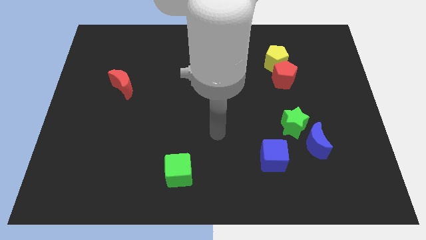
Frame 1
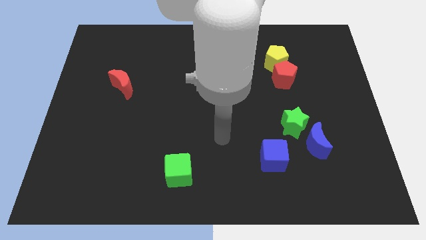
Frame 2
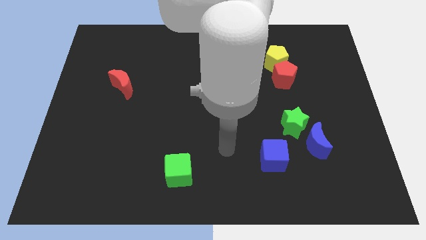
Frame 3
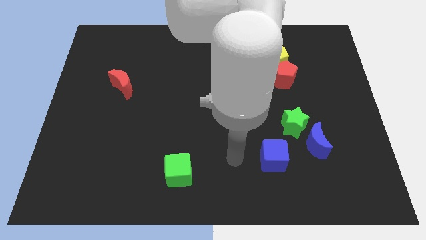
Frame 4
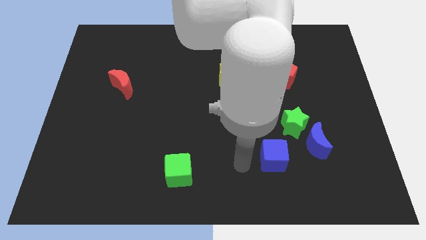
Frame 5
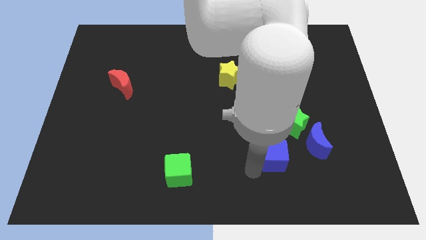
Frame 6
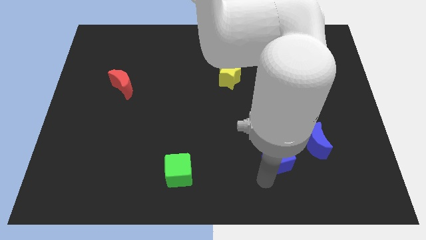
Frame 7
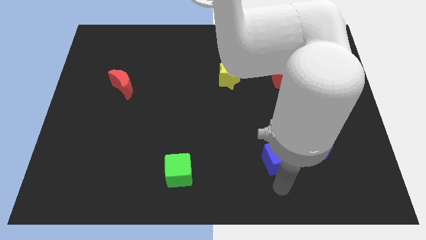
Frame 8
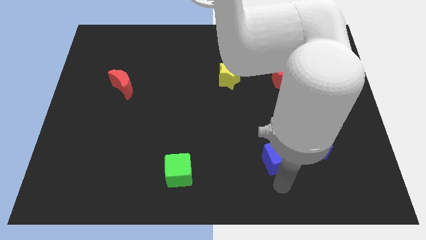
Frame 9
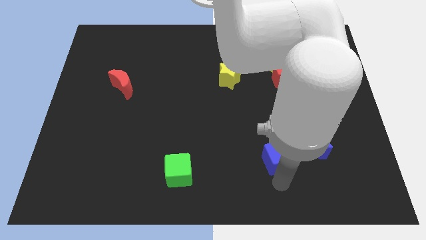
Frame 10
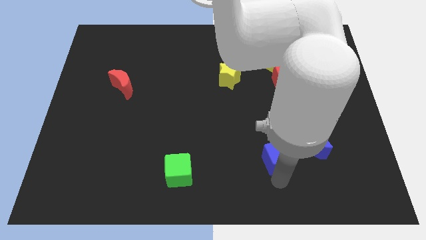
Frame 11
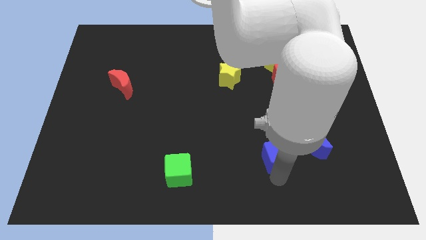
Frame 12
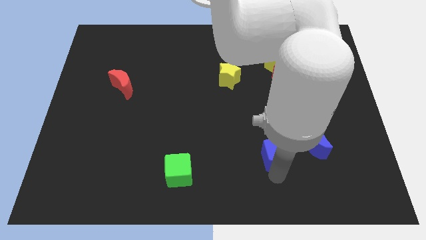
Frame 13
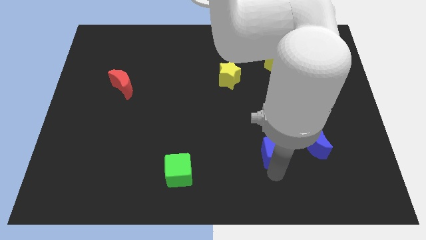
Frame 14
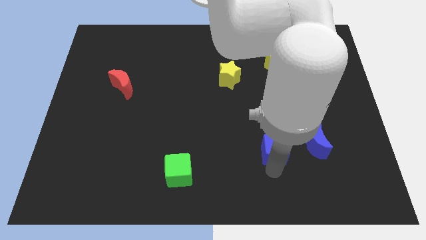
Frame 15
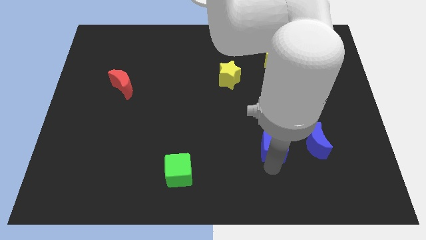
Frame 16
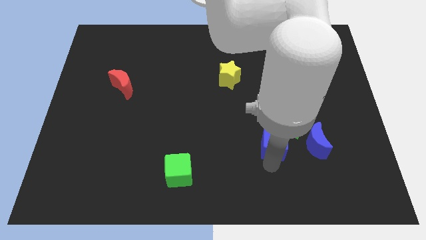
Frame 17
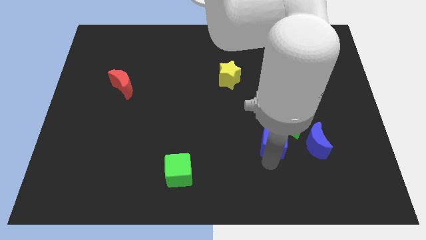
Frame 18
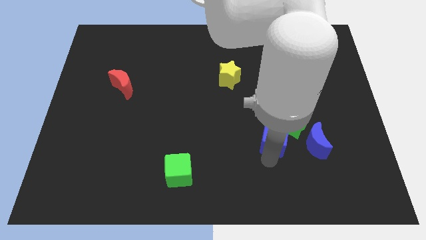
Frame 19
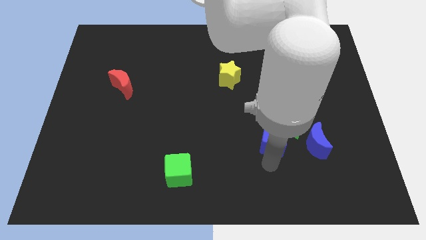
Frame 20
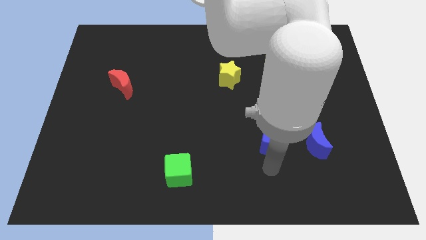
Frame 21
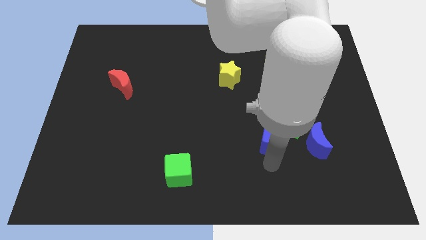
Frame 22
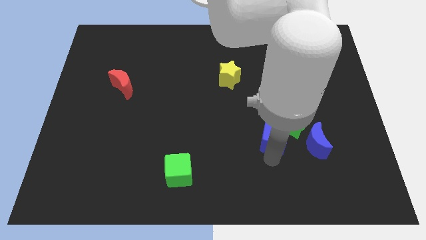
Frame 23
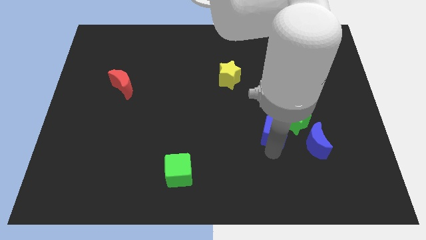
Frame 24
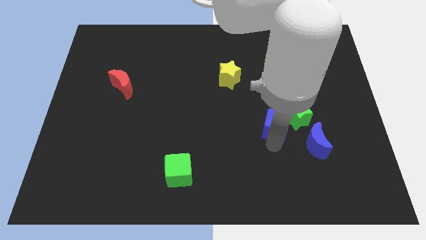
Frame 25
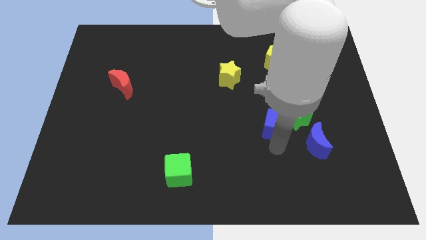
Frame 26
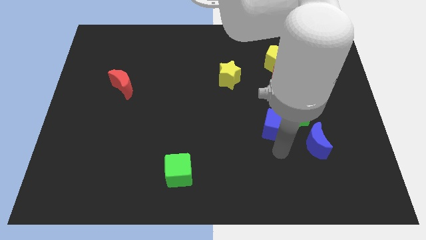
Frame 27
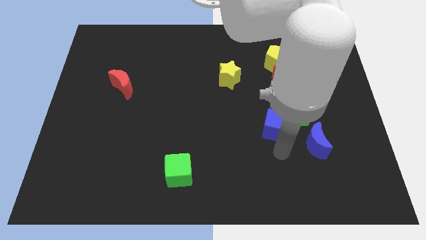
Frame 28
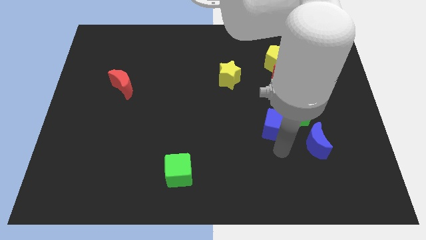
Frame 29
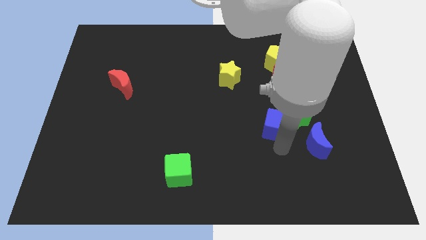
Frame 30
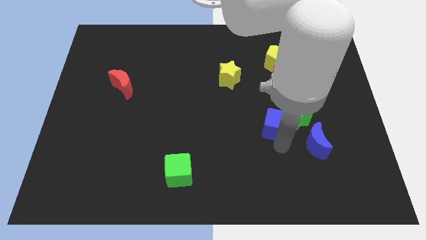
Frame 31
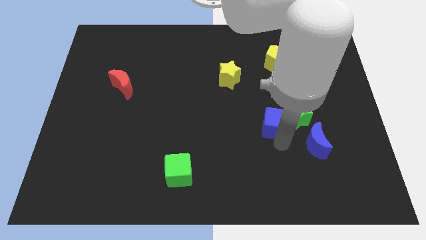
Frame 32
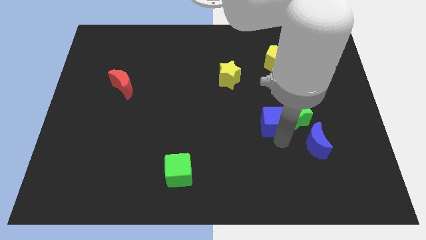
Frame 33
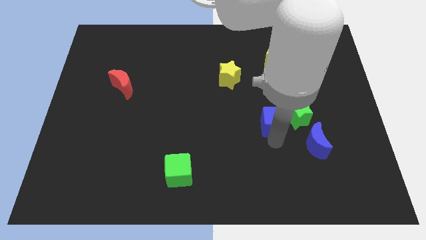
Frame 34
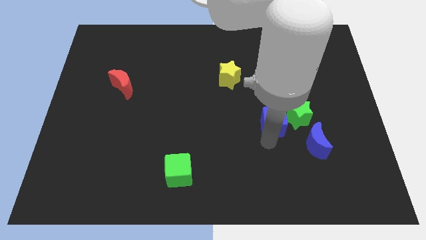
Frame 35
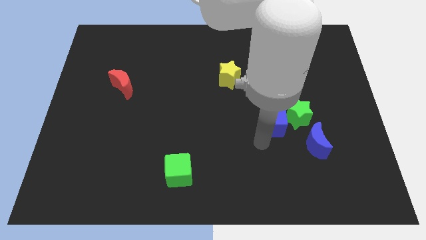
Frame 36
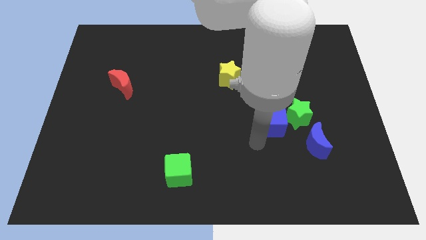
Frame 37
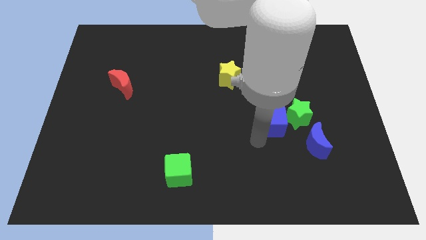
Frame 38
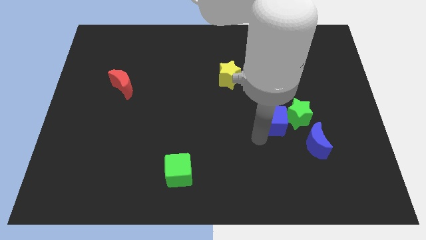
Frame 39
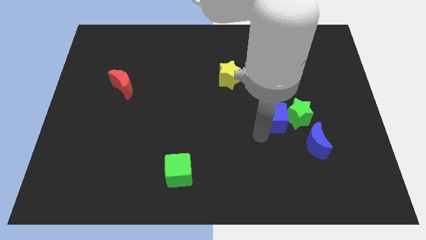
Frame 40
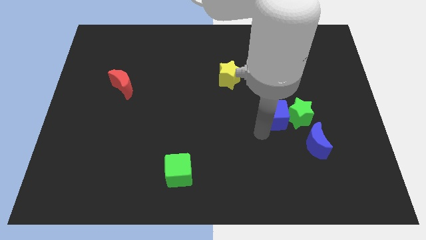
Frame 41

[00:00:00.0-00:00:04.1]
move the blue cube a little up and right

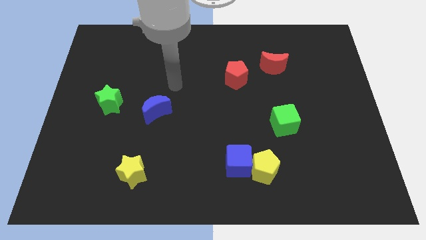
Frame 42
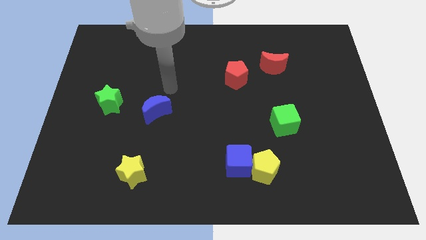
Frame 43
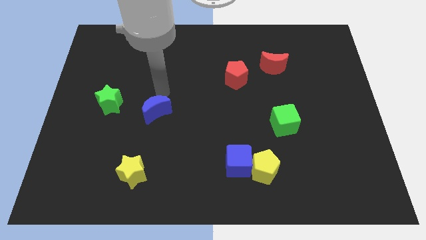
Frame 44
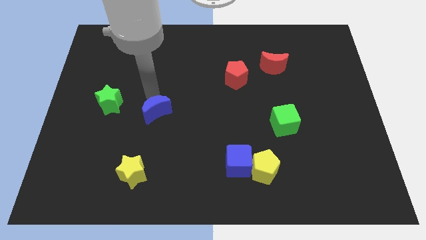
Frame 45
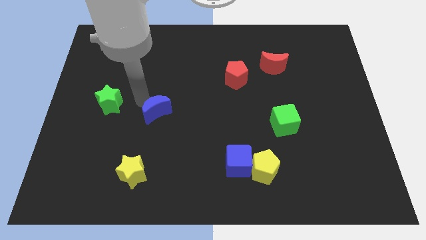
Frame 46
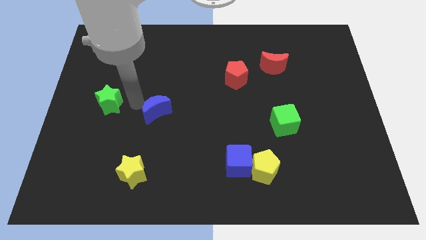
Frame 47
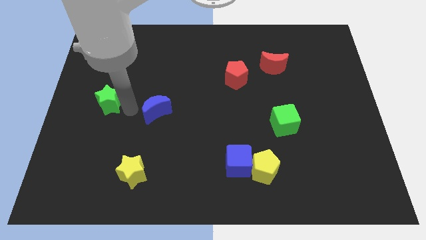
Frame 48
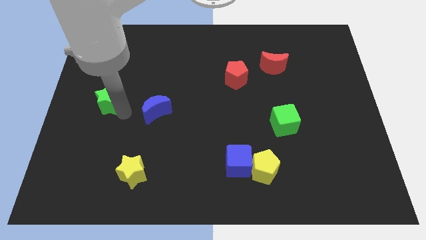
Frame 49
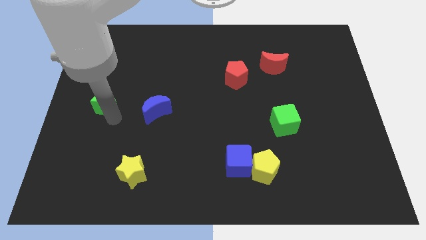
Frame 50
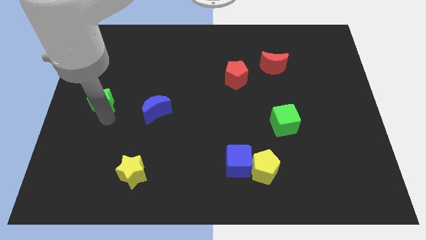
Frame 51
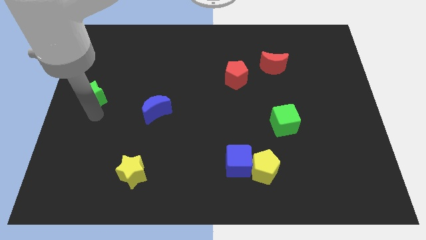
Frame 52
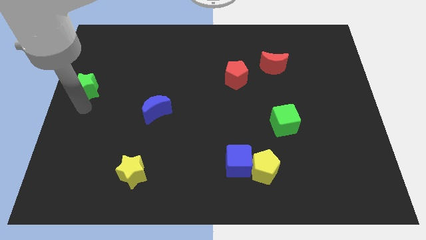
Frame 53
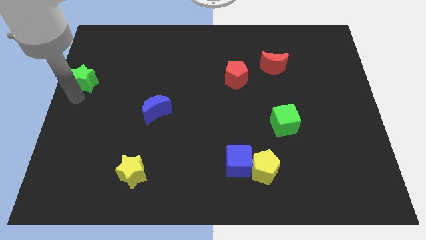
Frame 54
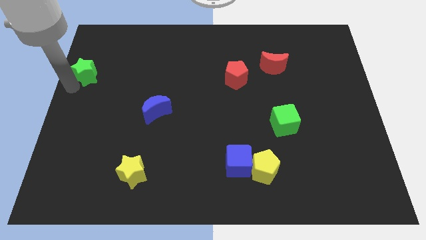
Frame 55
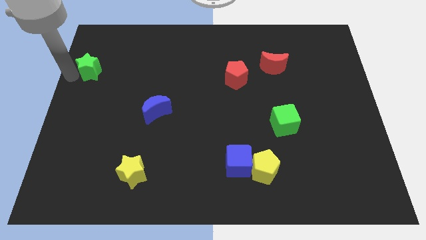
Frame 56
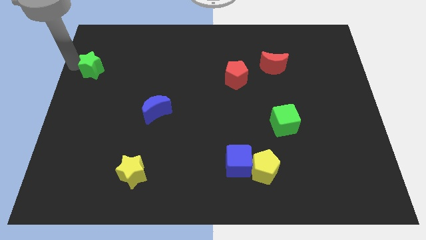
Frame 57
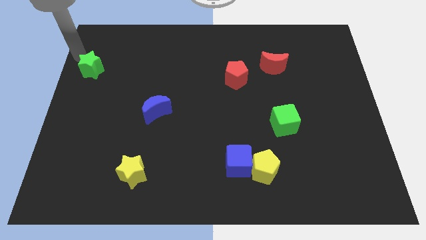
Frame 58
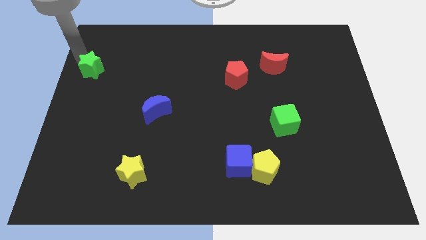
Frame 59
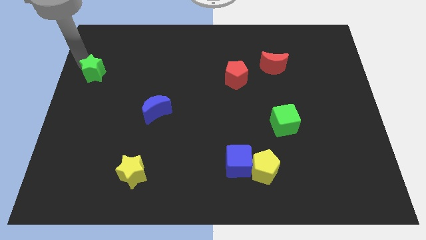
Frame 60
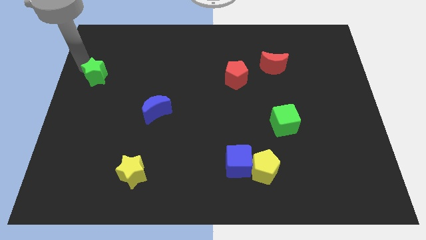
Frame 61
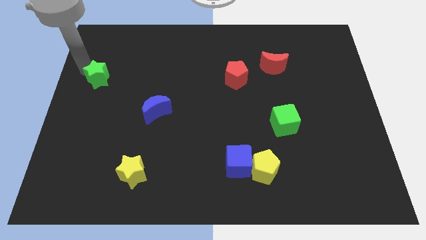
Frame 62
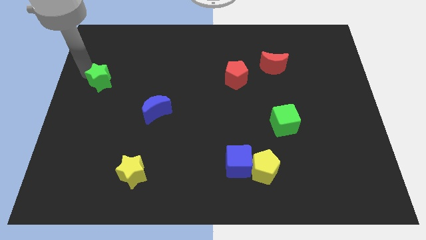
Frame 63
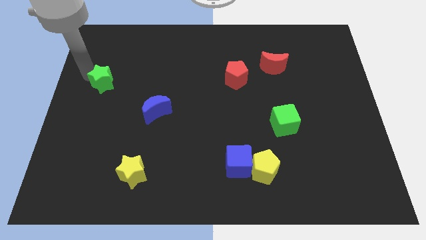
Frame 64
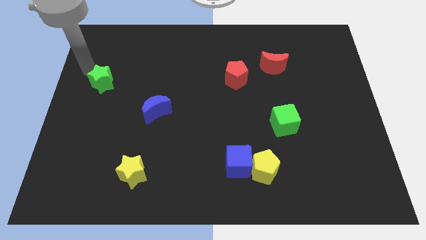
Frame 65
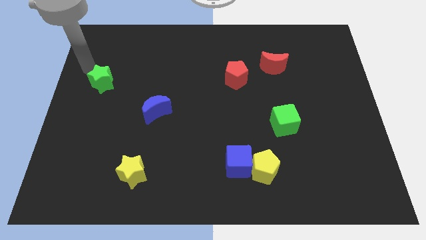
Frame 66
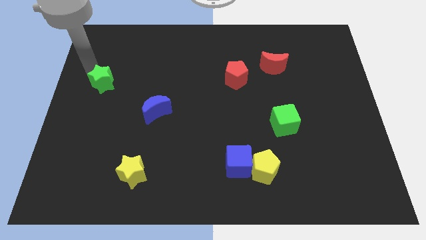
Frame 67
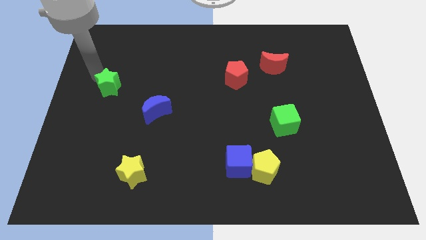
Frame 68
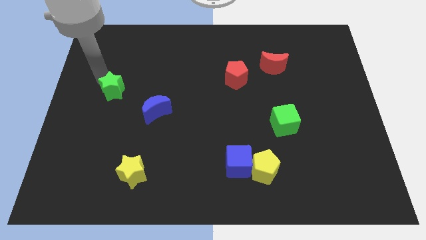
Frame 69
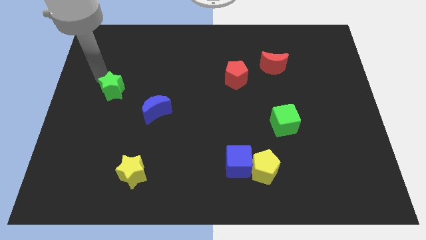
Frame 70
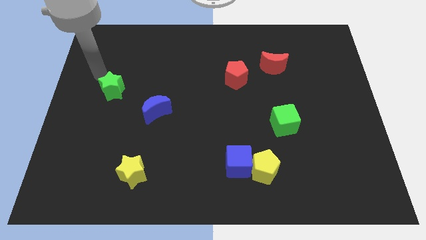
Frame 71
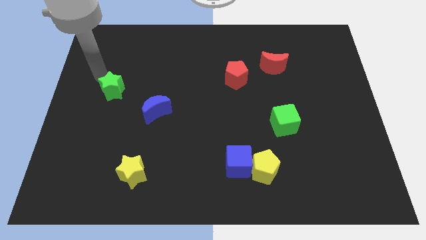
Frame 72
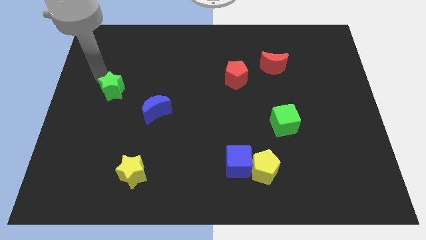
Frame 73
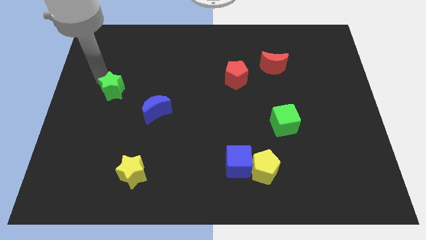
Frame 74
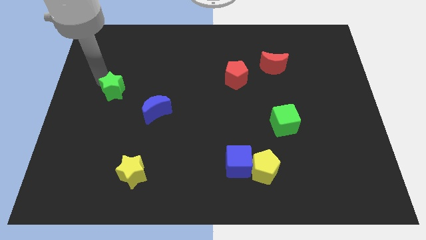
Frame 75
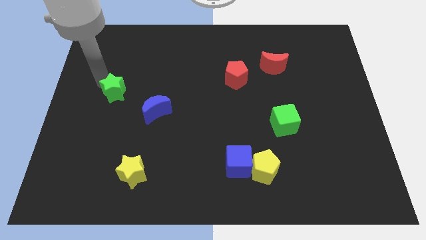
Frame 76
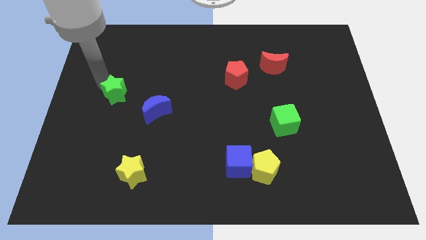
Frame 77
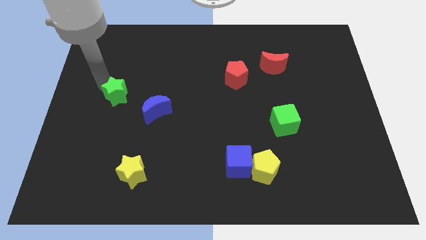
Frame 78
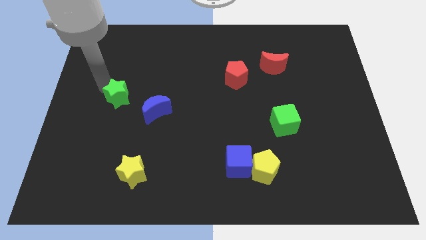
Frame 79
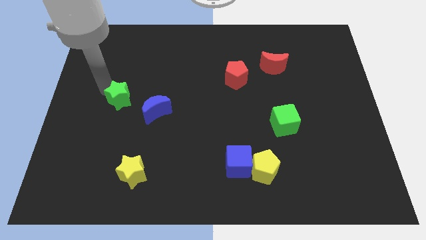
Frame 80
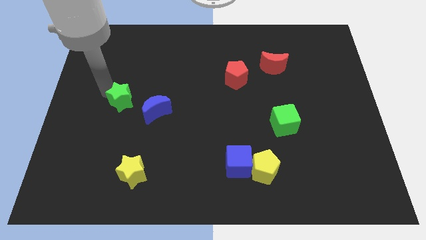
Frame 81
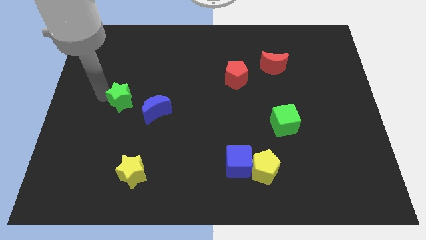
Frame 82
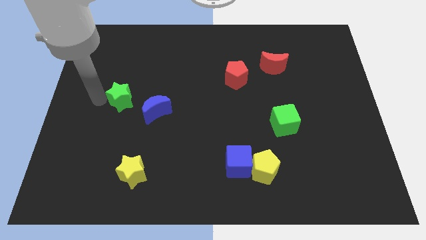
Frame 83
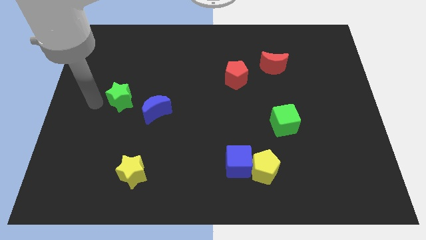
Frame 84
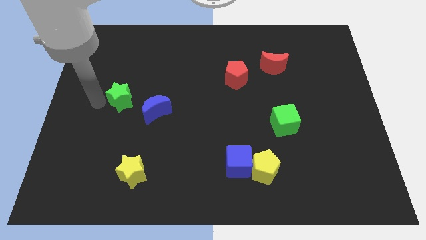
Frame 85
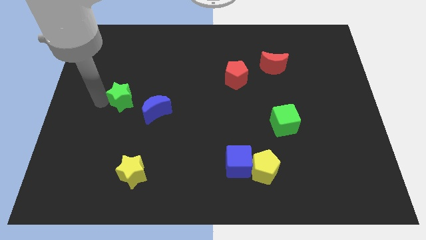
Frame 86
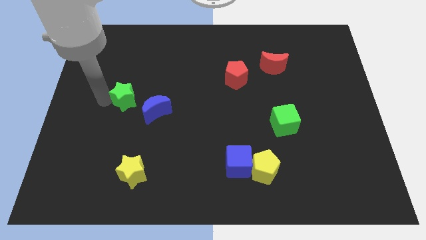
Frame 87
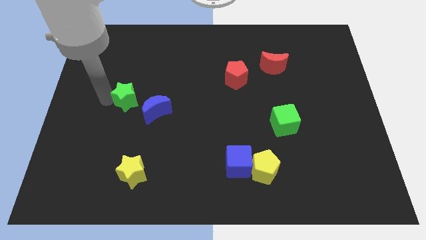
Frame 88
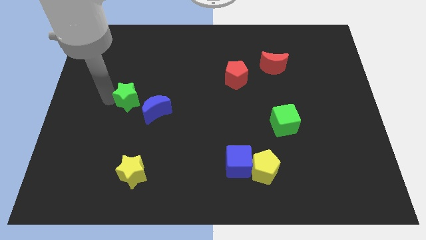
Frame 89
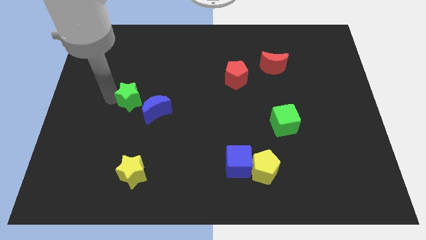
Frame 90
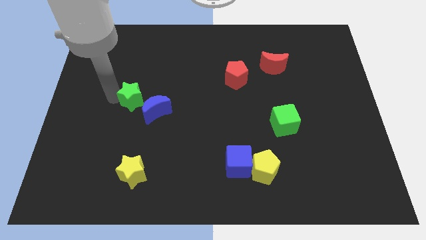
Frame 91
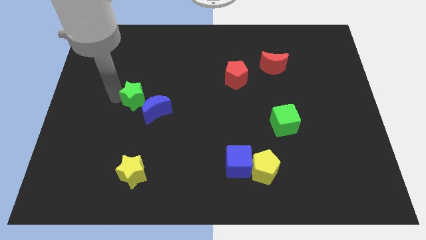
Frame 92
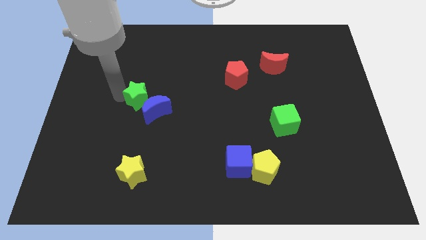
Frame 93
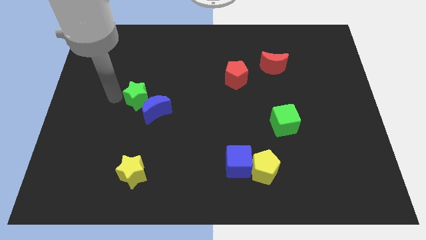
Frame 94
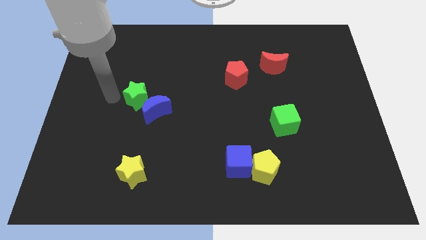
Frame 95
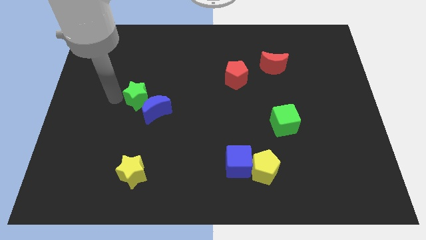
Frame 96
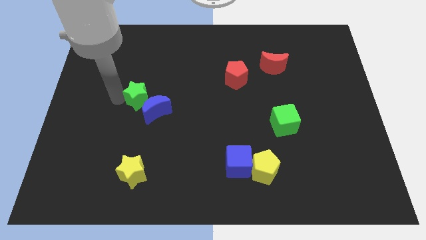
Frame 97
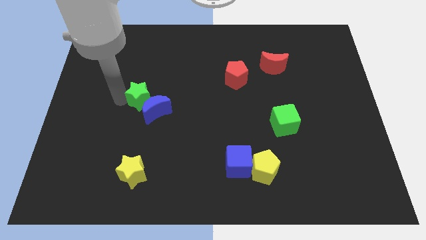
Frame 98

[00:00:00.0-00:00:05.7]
move the green star slightly to the right
